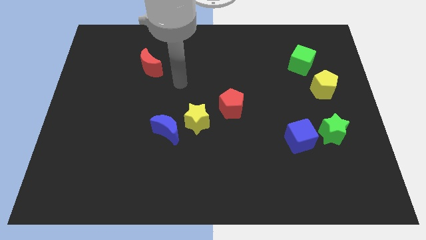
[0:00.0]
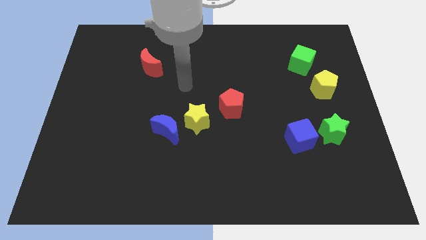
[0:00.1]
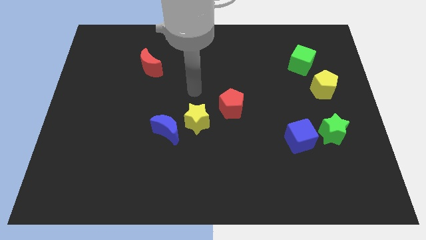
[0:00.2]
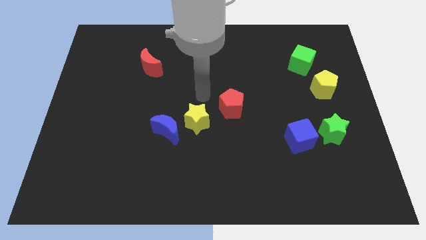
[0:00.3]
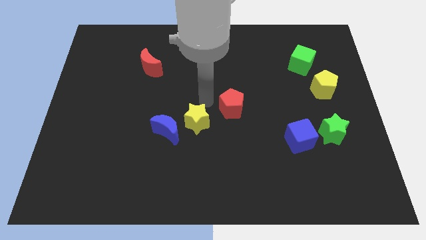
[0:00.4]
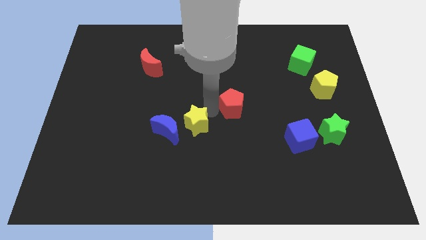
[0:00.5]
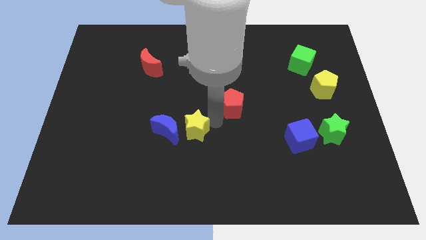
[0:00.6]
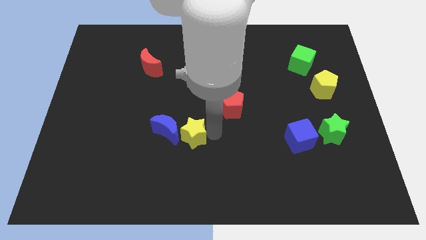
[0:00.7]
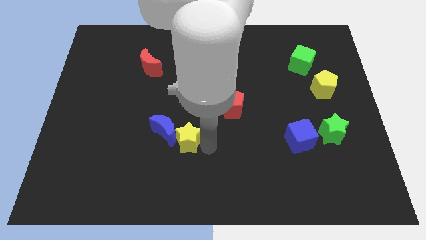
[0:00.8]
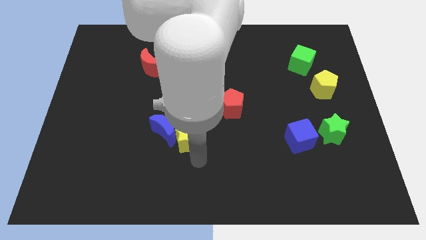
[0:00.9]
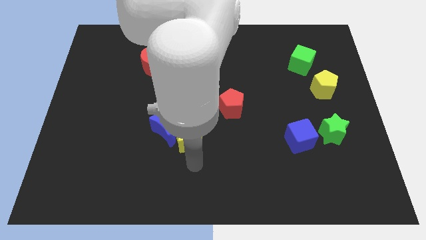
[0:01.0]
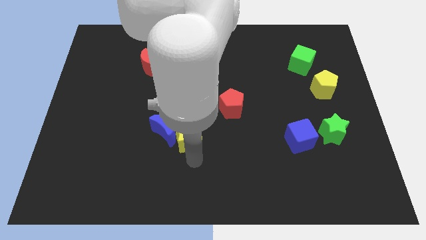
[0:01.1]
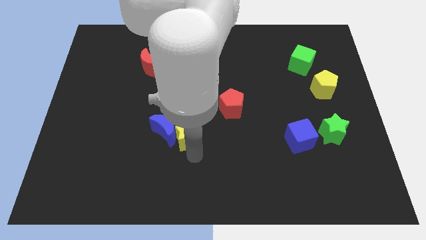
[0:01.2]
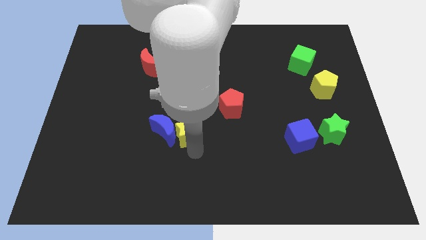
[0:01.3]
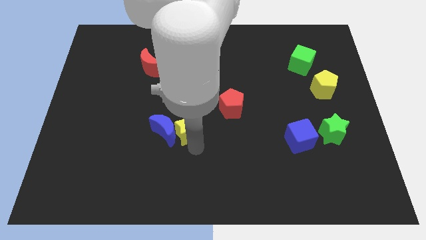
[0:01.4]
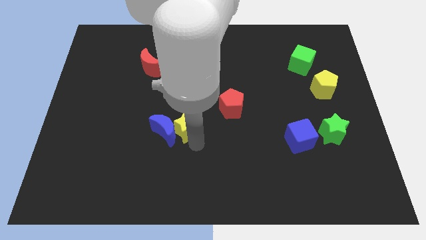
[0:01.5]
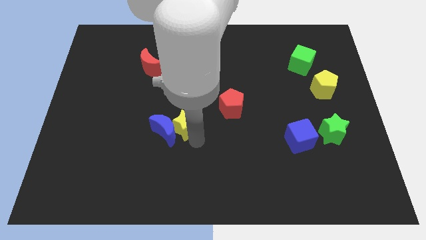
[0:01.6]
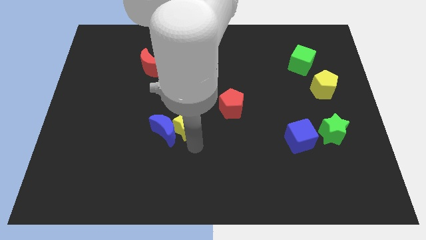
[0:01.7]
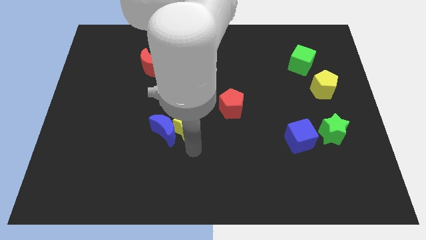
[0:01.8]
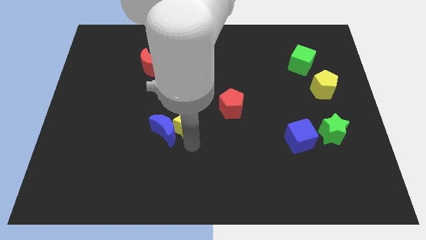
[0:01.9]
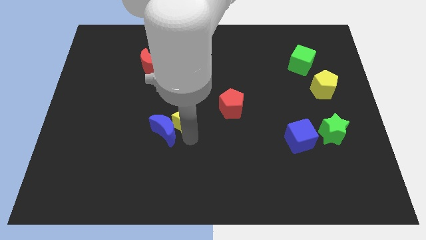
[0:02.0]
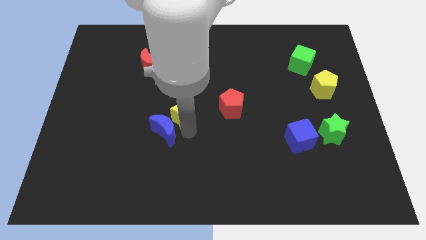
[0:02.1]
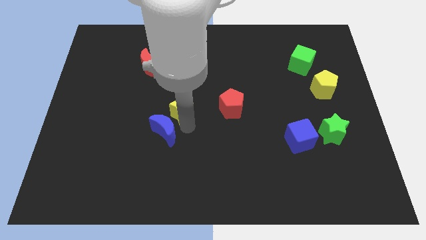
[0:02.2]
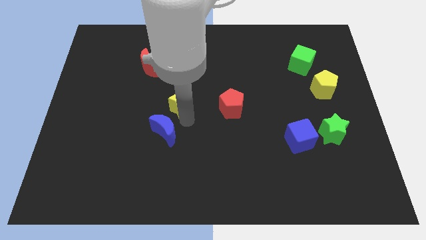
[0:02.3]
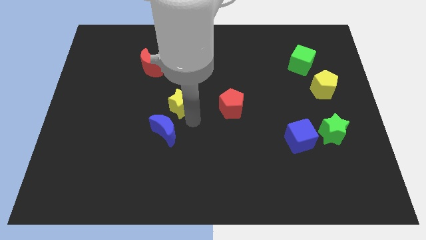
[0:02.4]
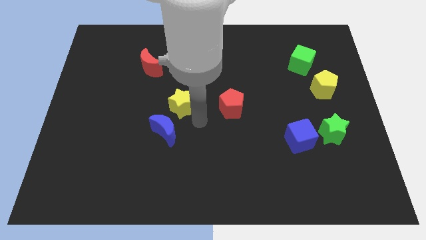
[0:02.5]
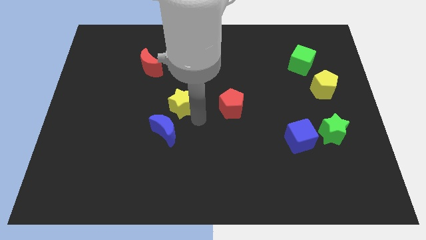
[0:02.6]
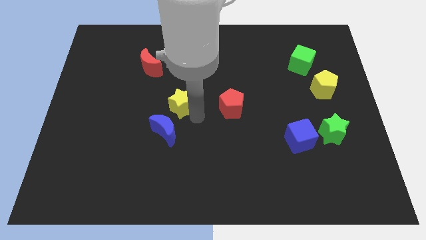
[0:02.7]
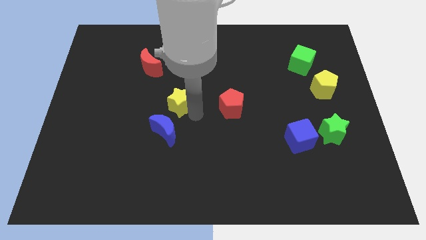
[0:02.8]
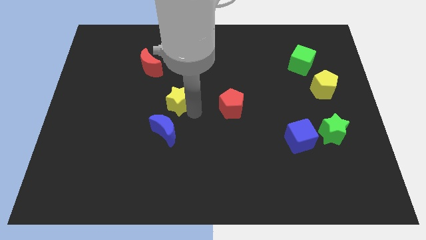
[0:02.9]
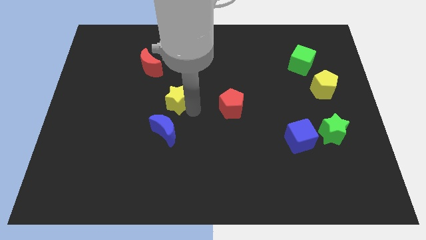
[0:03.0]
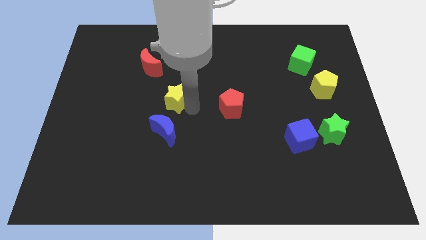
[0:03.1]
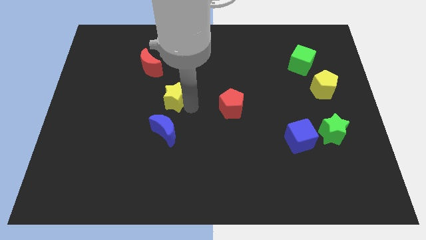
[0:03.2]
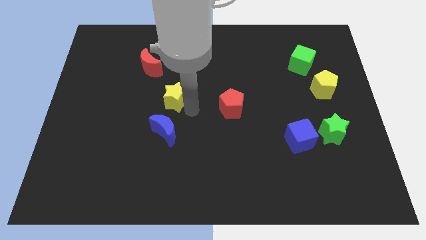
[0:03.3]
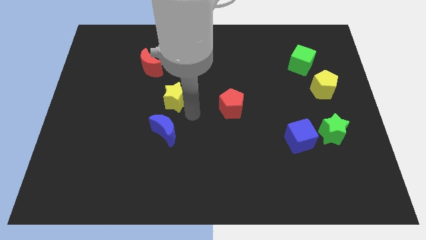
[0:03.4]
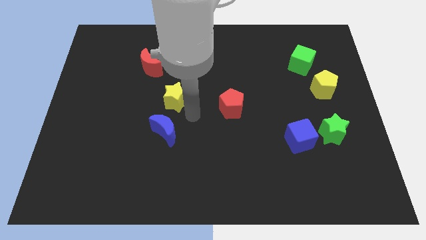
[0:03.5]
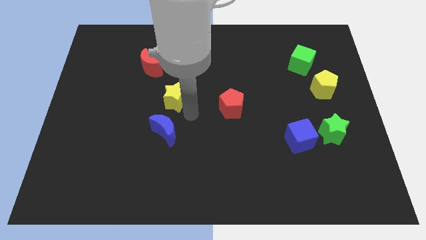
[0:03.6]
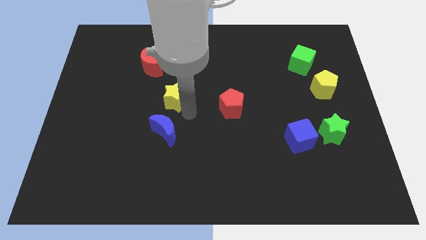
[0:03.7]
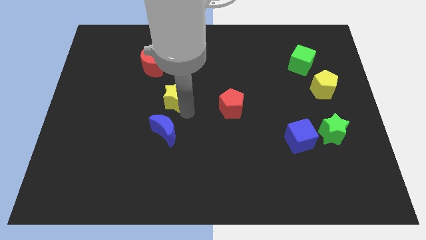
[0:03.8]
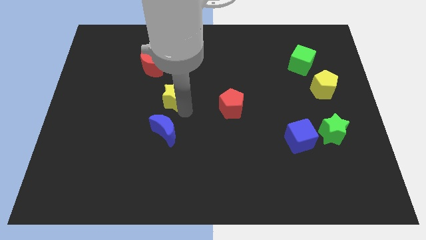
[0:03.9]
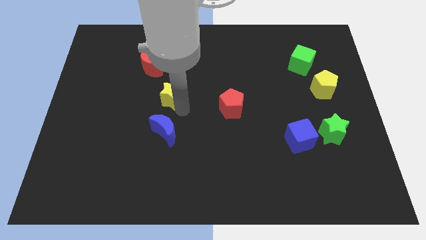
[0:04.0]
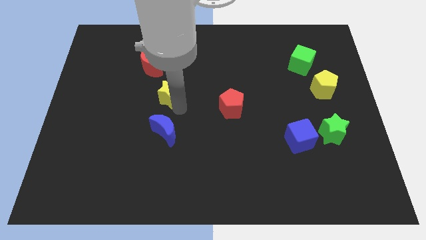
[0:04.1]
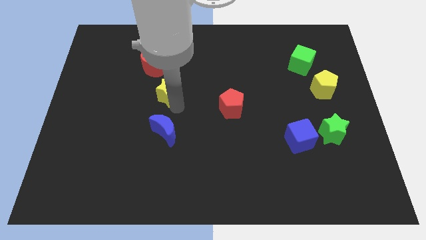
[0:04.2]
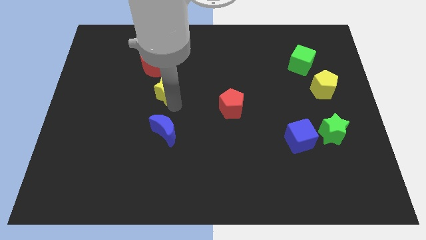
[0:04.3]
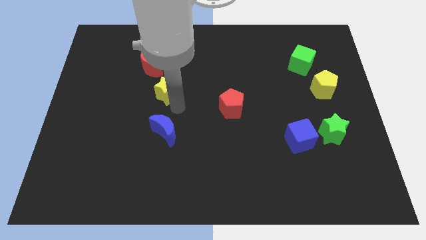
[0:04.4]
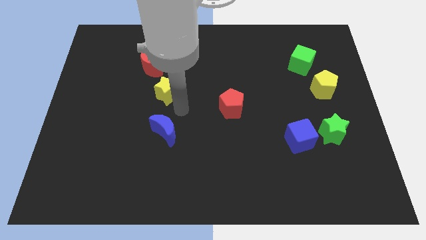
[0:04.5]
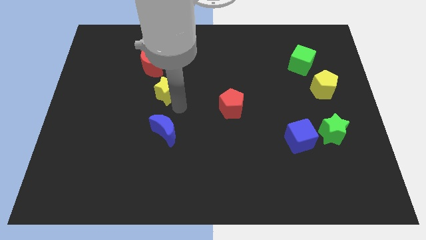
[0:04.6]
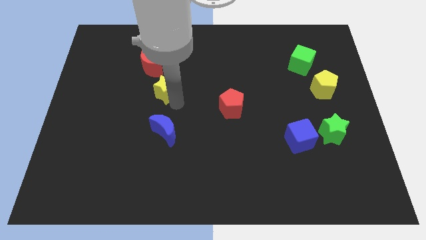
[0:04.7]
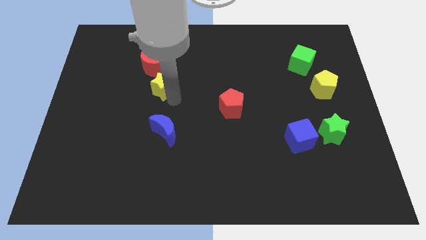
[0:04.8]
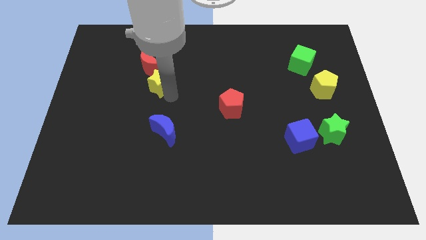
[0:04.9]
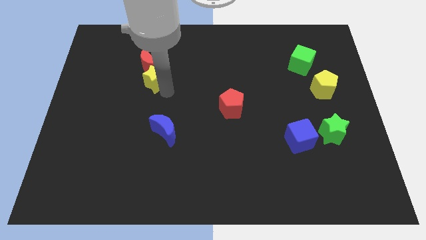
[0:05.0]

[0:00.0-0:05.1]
put the yellow star next to the red moon

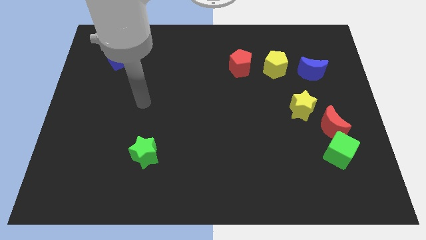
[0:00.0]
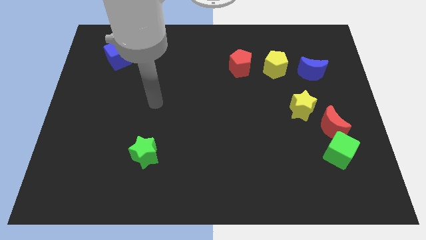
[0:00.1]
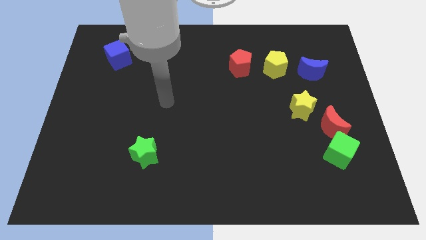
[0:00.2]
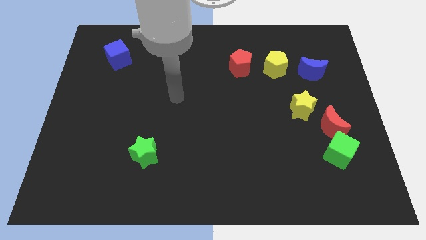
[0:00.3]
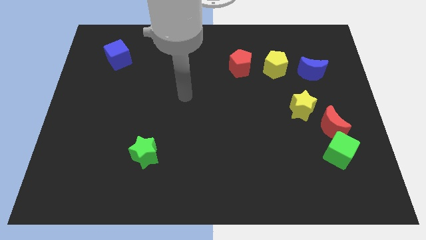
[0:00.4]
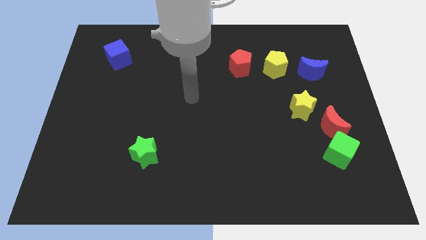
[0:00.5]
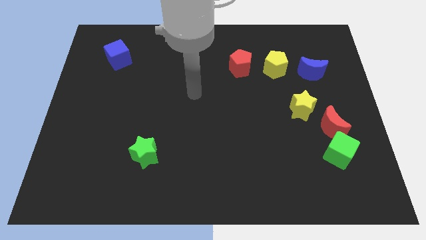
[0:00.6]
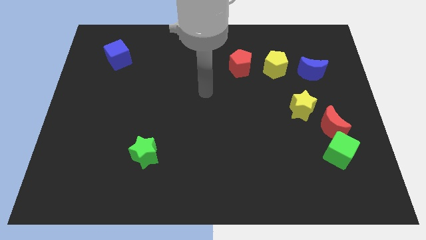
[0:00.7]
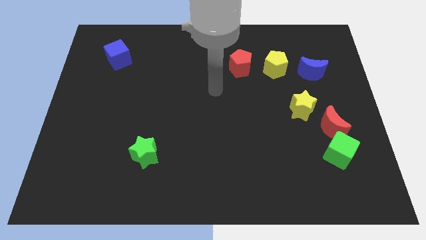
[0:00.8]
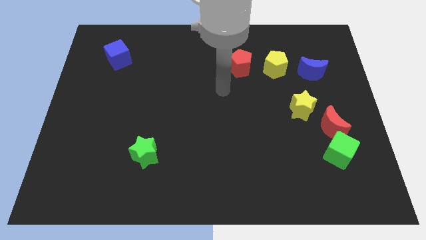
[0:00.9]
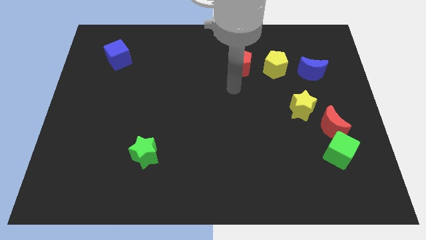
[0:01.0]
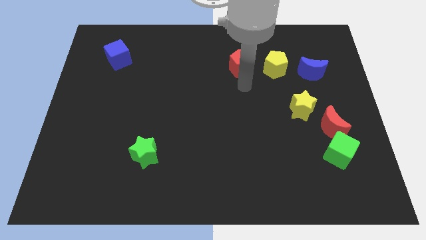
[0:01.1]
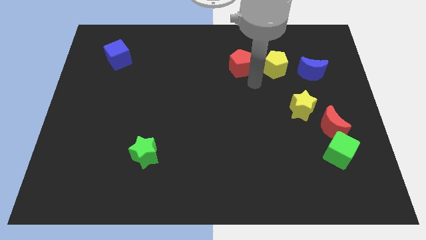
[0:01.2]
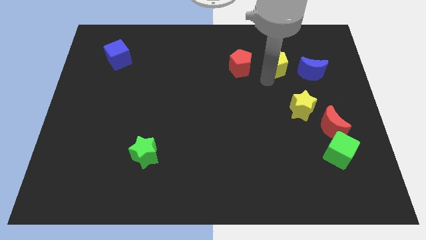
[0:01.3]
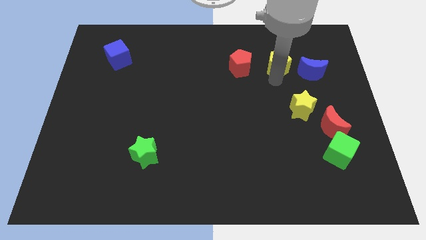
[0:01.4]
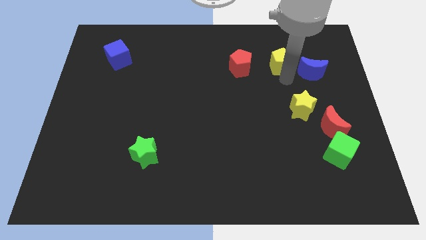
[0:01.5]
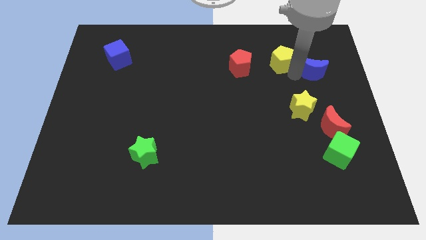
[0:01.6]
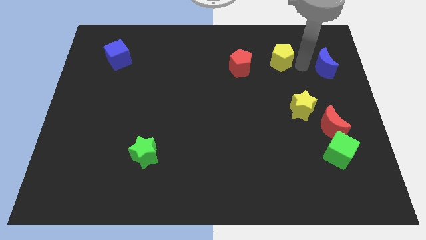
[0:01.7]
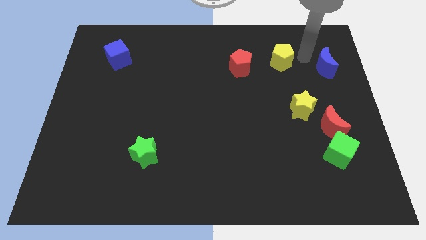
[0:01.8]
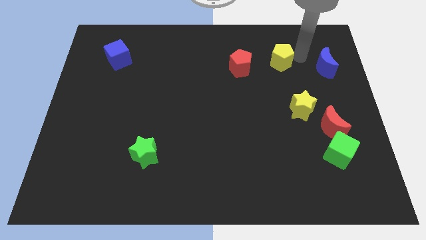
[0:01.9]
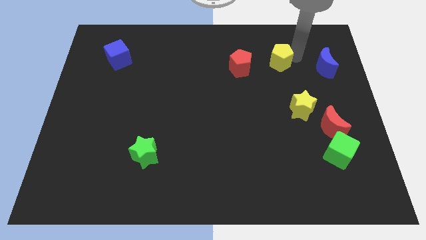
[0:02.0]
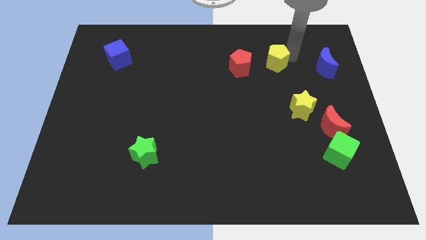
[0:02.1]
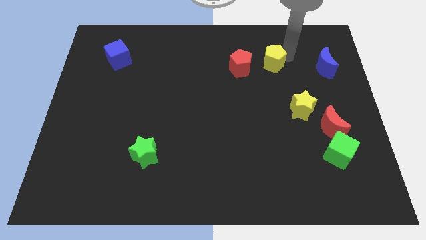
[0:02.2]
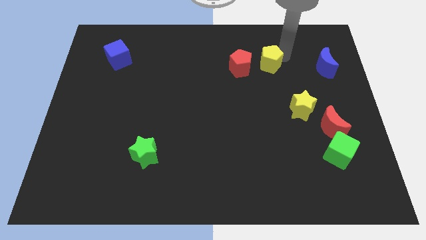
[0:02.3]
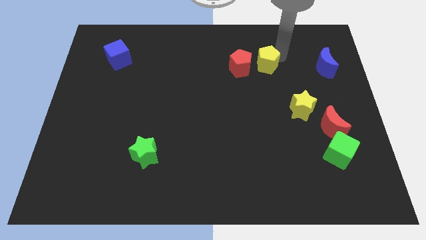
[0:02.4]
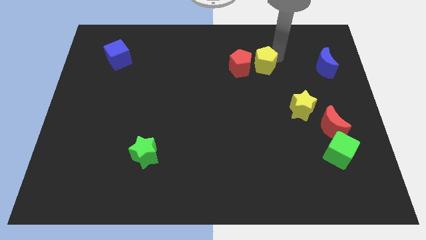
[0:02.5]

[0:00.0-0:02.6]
slide the yellow pentagon close to the red pentagon
